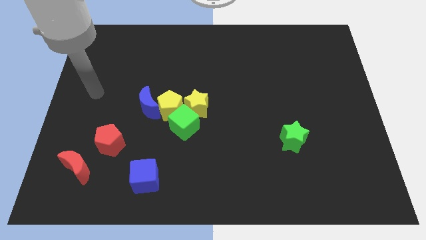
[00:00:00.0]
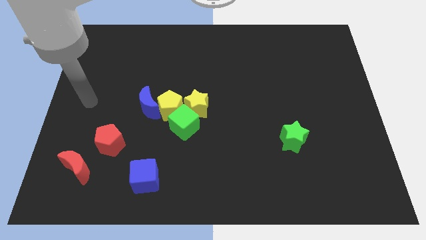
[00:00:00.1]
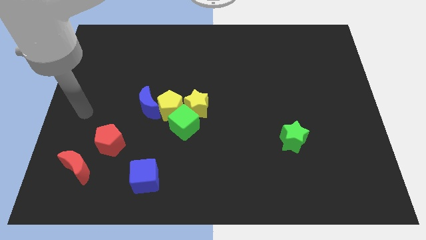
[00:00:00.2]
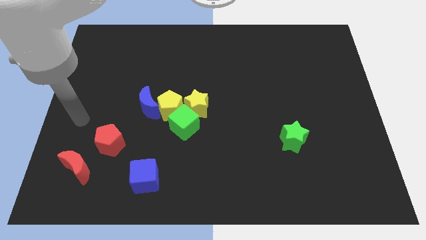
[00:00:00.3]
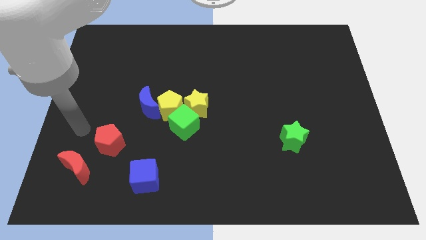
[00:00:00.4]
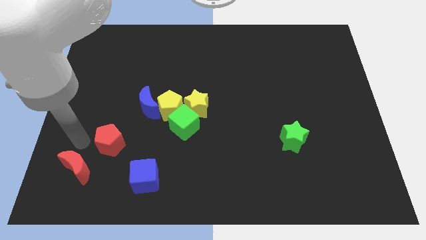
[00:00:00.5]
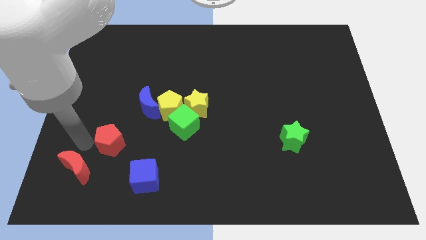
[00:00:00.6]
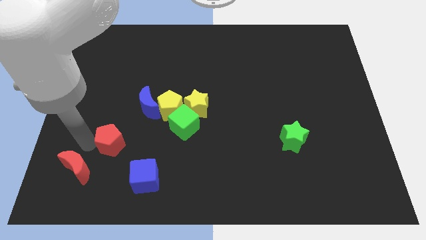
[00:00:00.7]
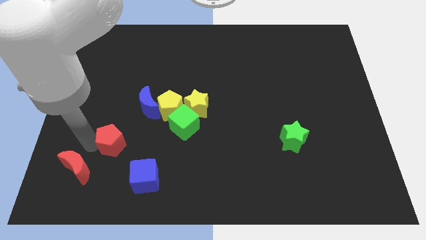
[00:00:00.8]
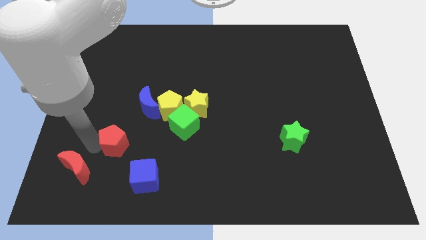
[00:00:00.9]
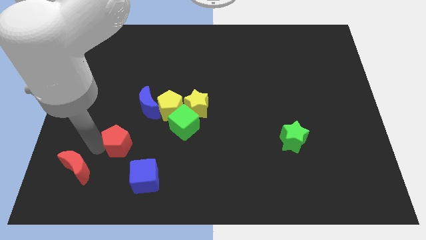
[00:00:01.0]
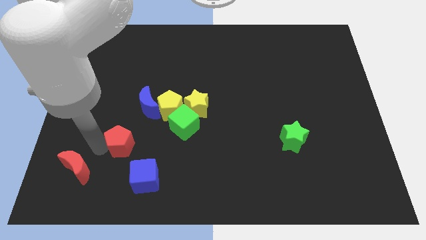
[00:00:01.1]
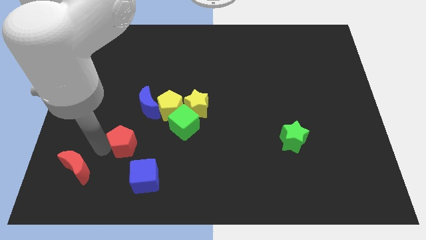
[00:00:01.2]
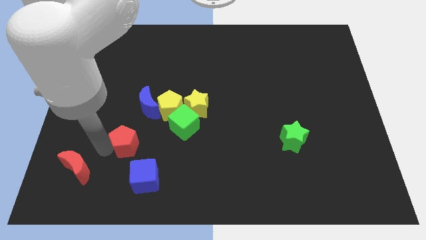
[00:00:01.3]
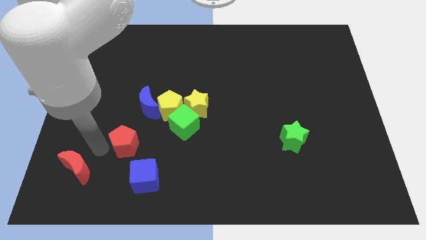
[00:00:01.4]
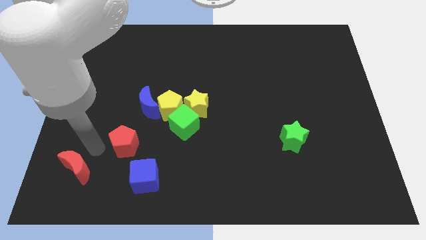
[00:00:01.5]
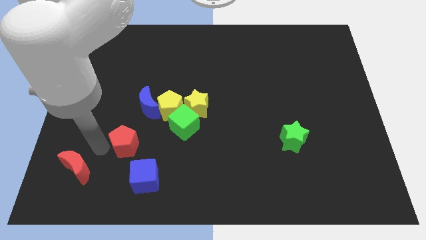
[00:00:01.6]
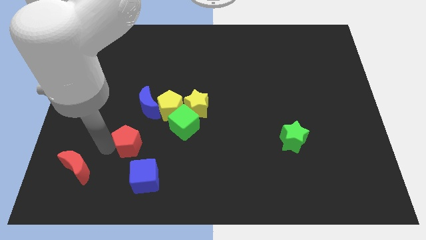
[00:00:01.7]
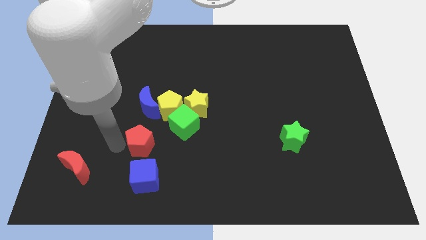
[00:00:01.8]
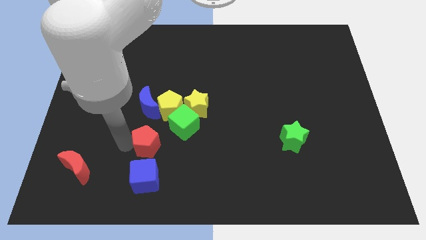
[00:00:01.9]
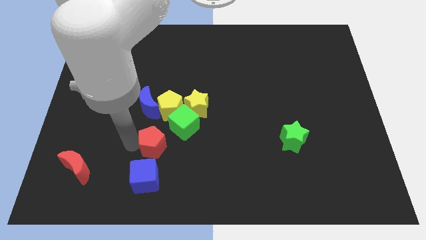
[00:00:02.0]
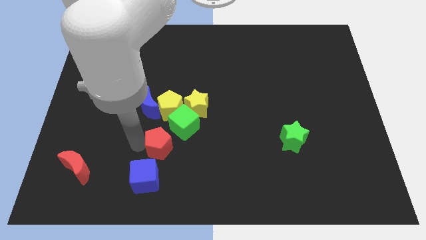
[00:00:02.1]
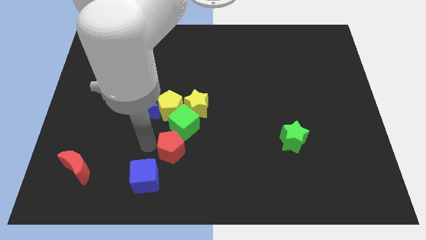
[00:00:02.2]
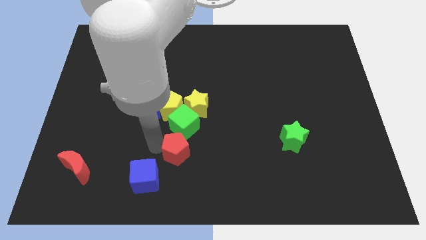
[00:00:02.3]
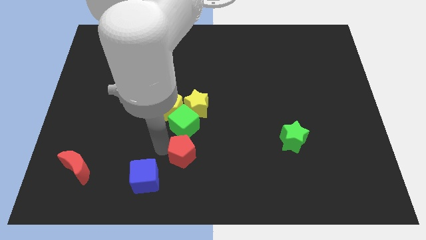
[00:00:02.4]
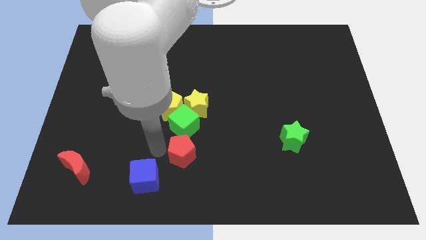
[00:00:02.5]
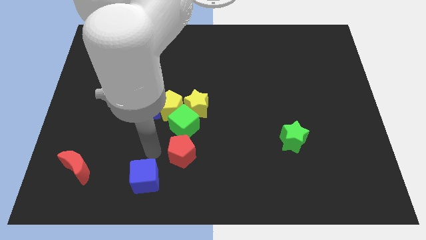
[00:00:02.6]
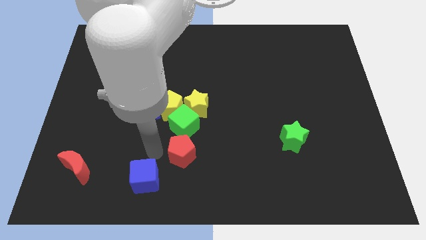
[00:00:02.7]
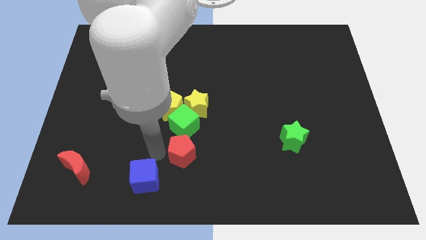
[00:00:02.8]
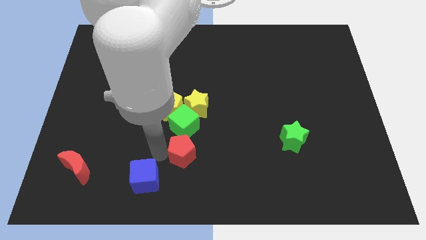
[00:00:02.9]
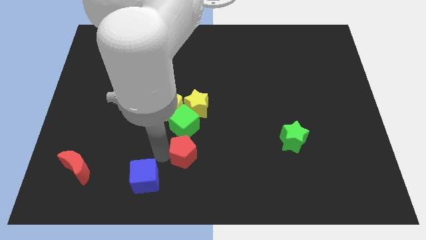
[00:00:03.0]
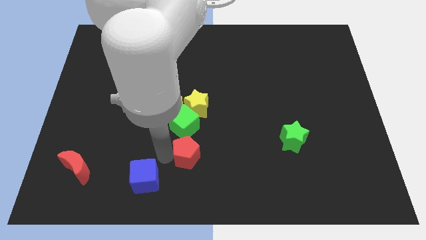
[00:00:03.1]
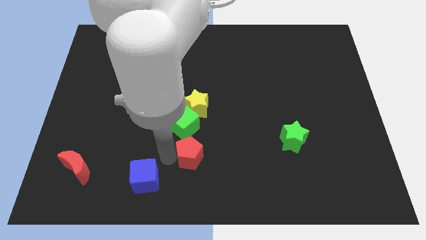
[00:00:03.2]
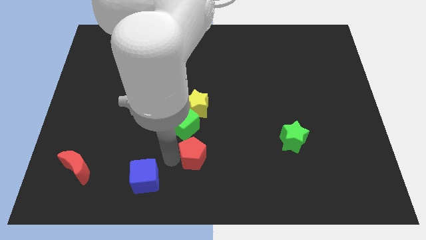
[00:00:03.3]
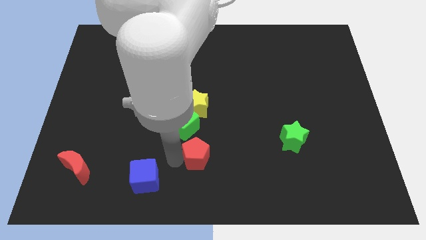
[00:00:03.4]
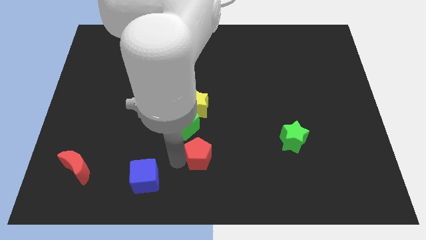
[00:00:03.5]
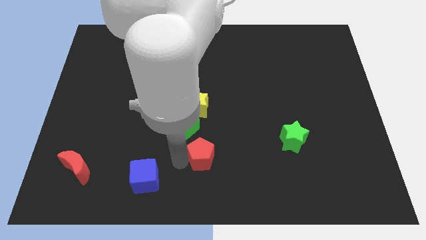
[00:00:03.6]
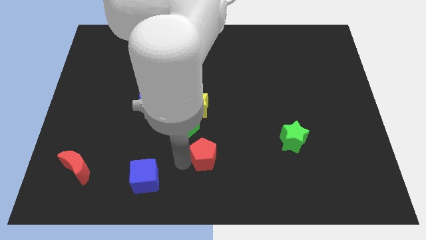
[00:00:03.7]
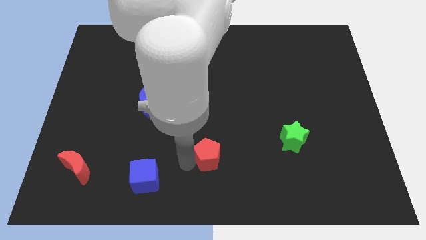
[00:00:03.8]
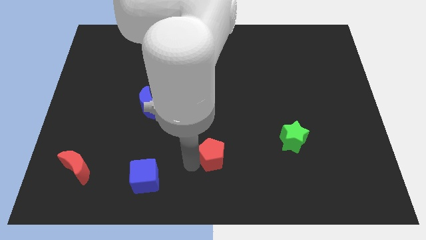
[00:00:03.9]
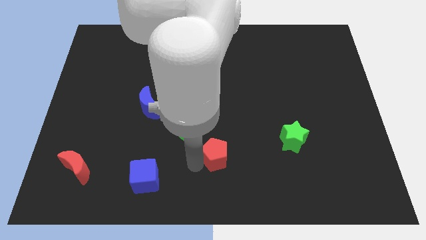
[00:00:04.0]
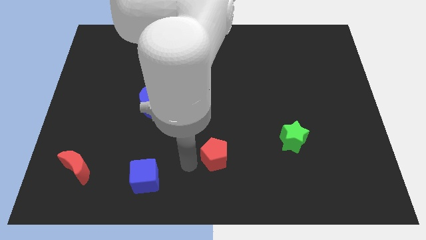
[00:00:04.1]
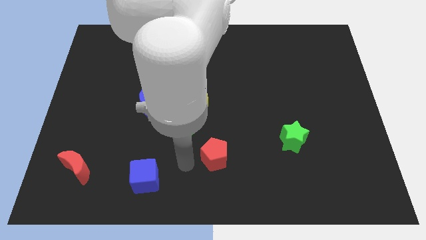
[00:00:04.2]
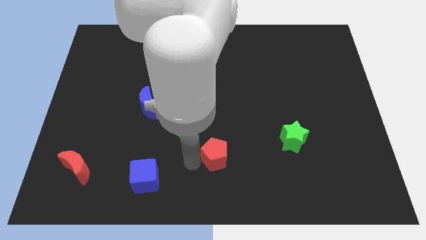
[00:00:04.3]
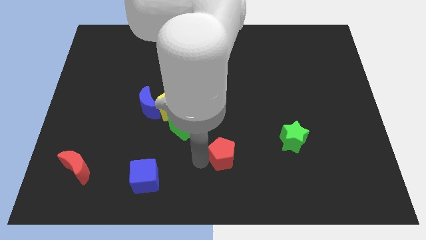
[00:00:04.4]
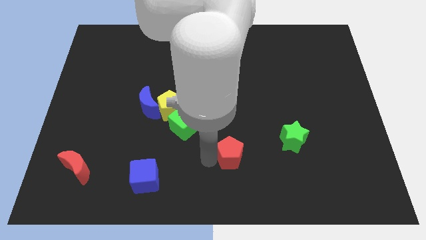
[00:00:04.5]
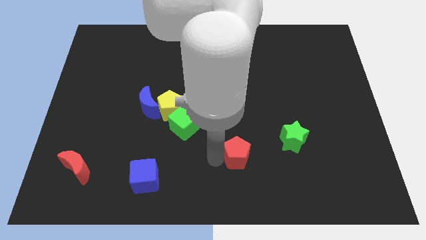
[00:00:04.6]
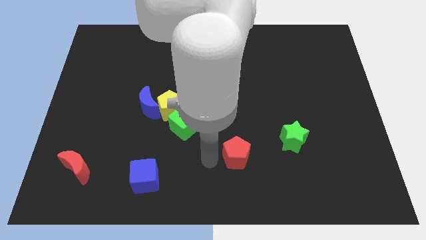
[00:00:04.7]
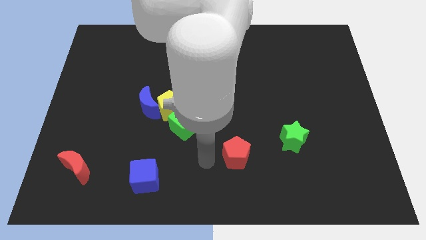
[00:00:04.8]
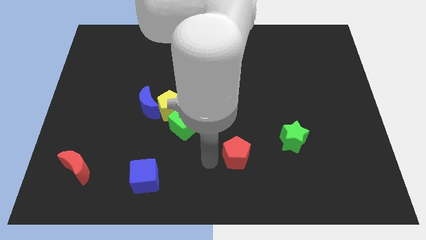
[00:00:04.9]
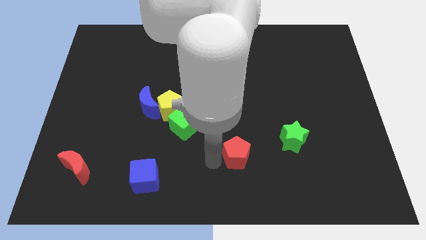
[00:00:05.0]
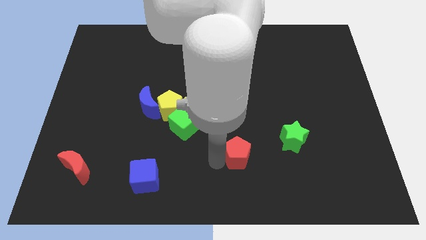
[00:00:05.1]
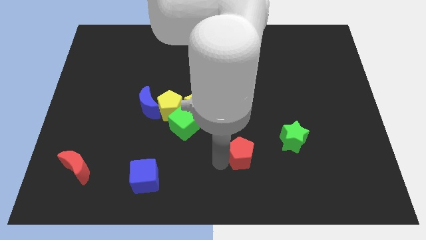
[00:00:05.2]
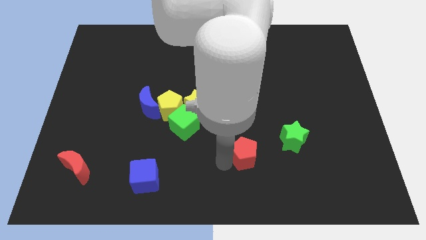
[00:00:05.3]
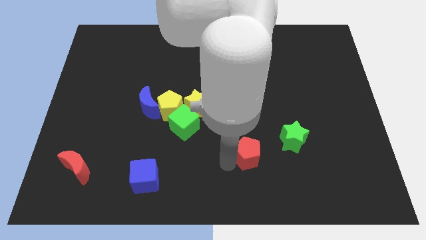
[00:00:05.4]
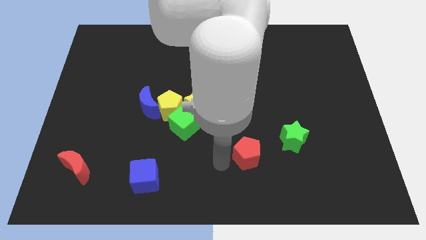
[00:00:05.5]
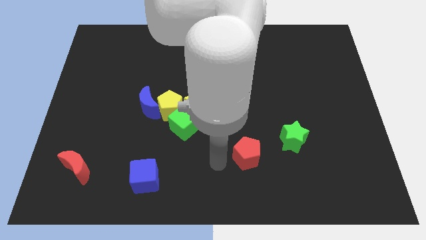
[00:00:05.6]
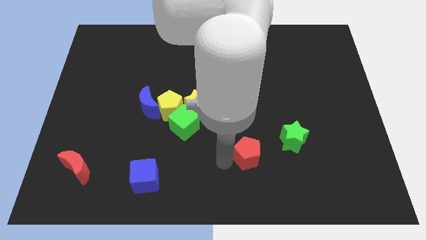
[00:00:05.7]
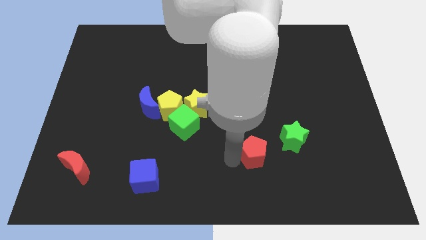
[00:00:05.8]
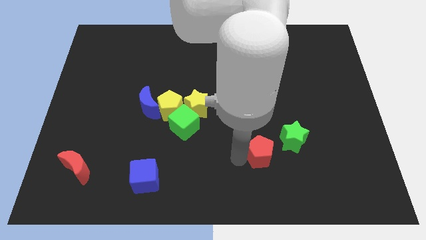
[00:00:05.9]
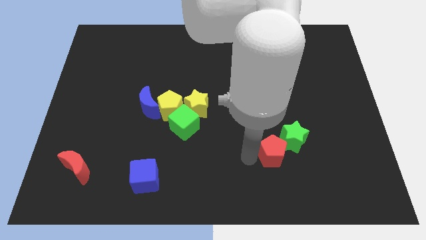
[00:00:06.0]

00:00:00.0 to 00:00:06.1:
push the red pentagon next to the green star
